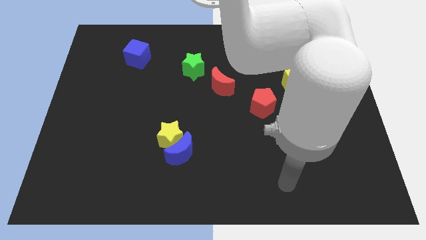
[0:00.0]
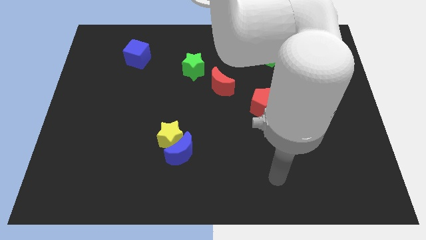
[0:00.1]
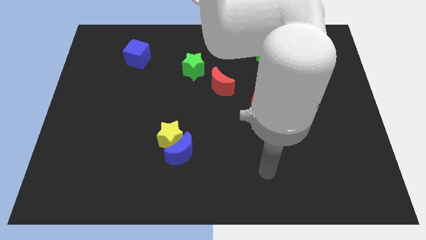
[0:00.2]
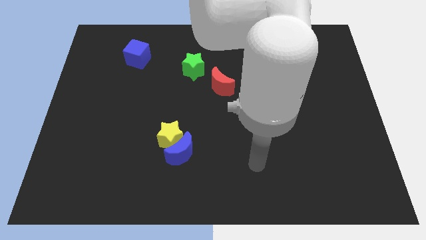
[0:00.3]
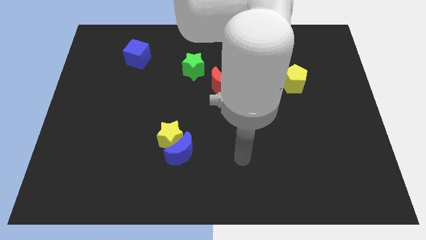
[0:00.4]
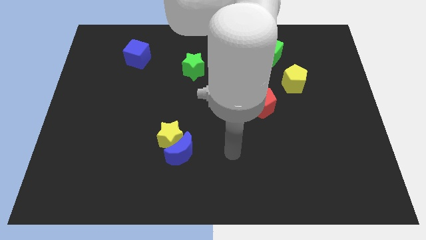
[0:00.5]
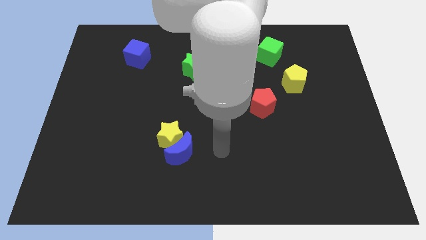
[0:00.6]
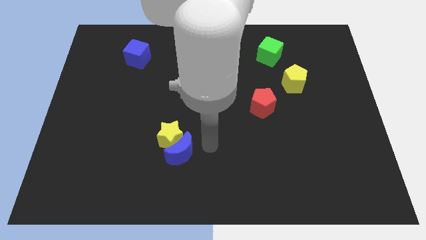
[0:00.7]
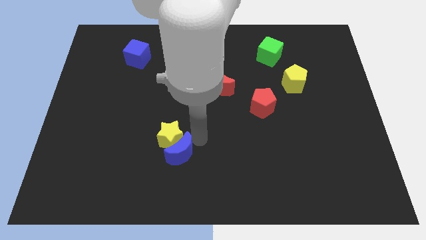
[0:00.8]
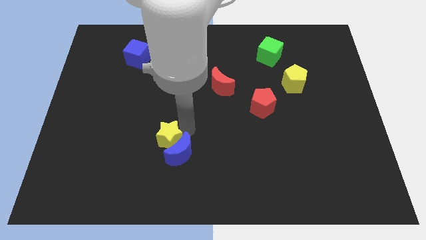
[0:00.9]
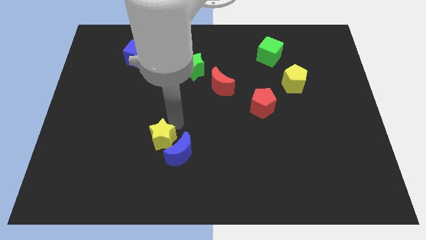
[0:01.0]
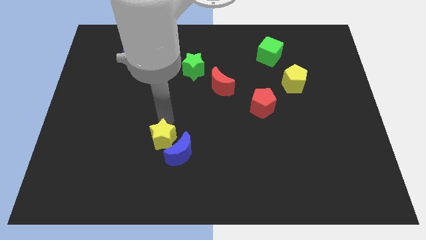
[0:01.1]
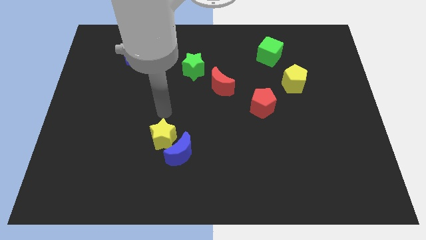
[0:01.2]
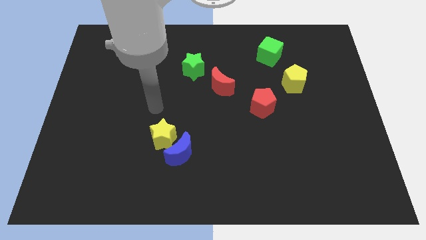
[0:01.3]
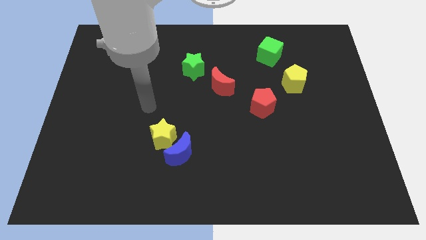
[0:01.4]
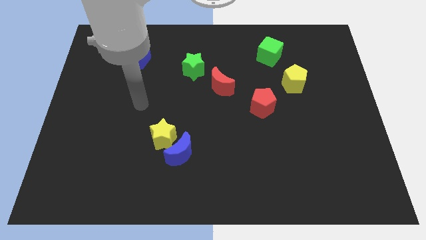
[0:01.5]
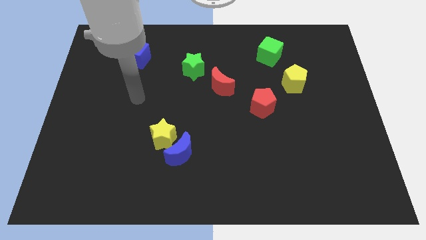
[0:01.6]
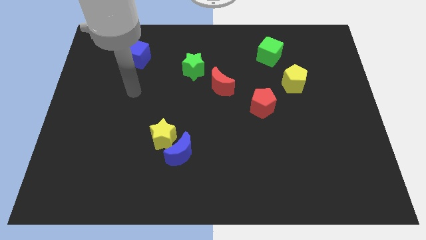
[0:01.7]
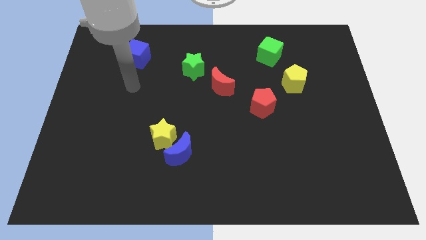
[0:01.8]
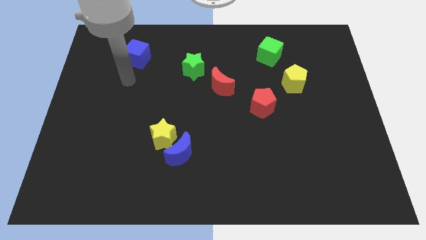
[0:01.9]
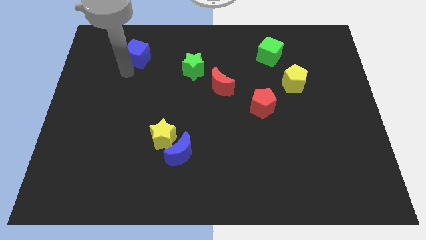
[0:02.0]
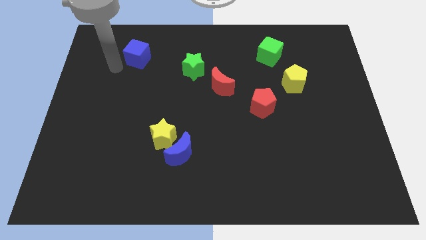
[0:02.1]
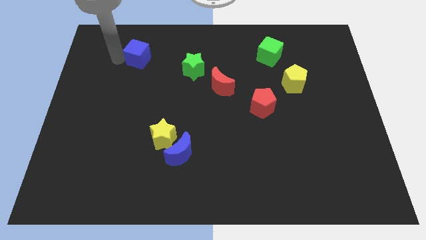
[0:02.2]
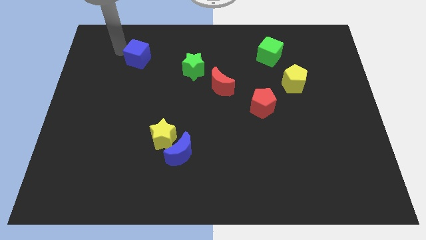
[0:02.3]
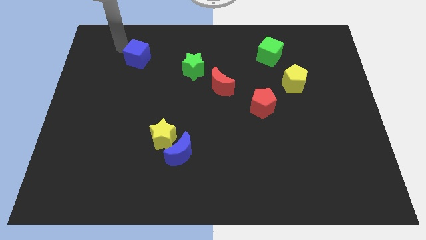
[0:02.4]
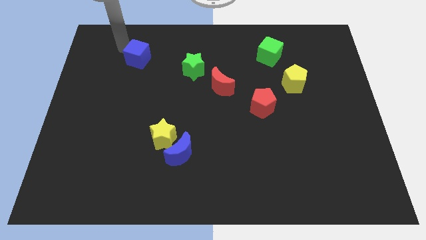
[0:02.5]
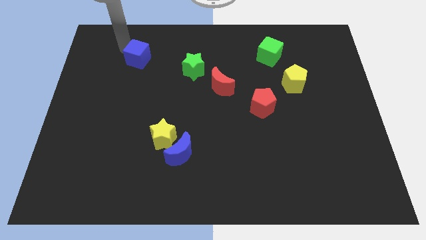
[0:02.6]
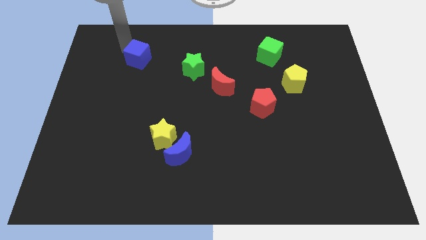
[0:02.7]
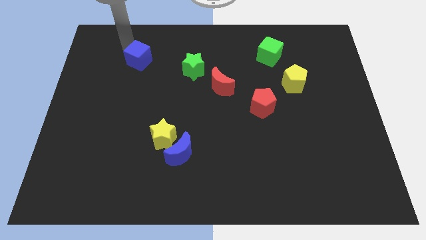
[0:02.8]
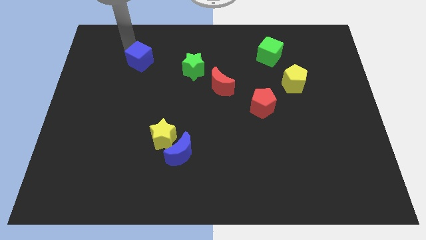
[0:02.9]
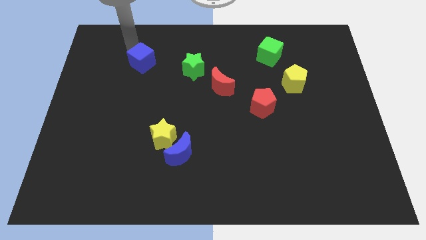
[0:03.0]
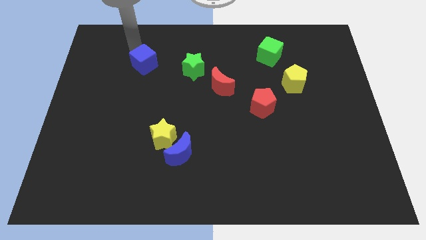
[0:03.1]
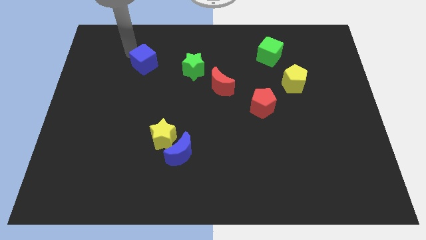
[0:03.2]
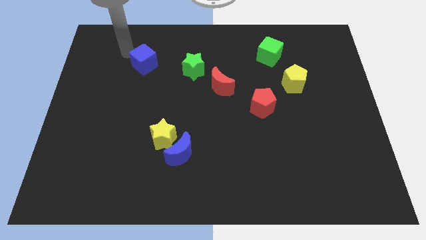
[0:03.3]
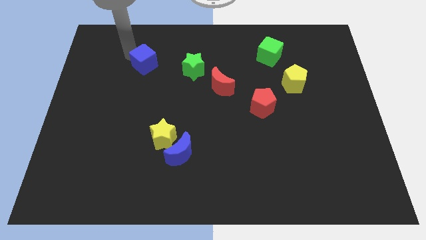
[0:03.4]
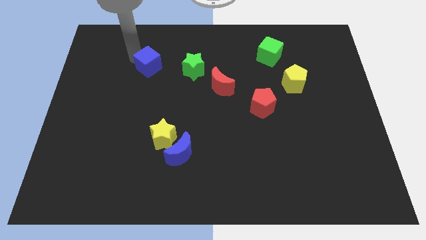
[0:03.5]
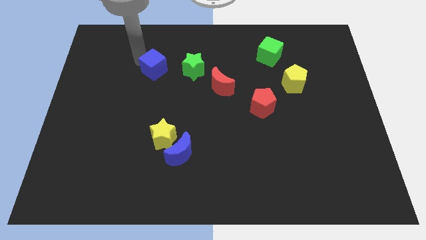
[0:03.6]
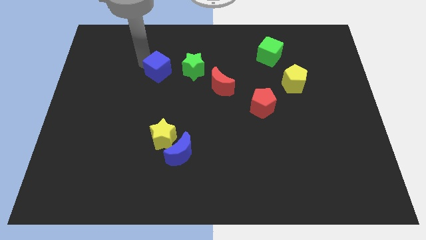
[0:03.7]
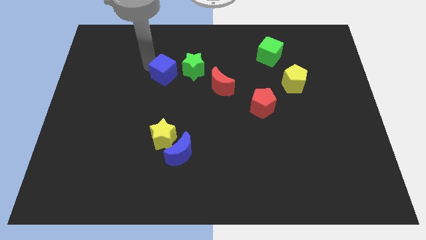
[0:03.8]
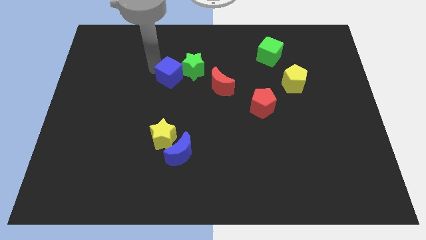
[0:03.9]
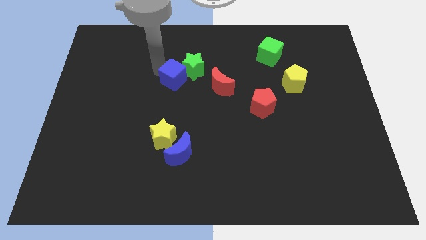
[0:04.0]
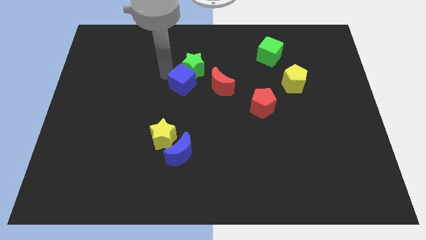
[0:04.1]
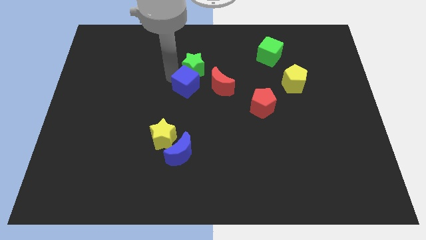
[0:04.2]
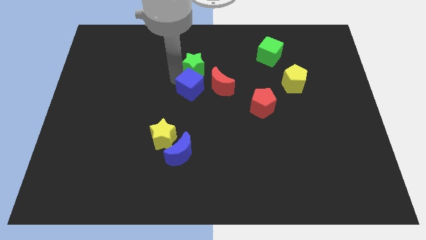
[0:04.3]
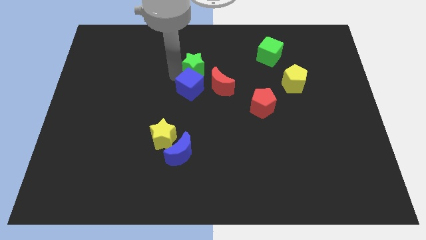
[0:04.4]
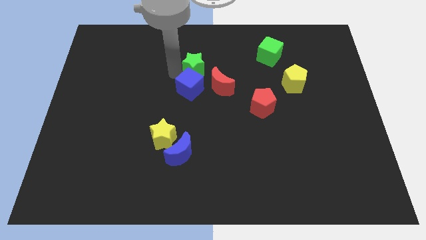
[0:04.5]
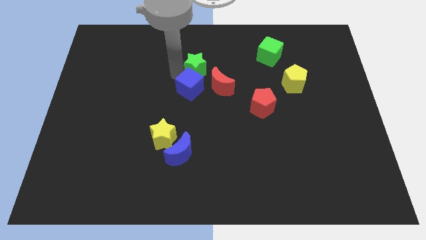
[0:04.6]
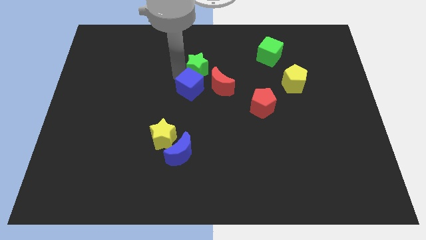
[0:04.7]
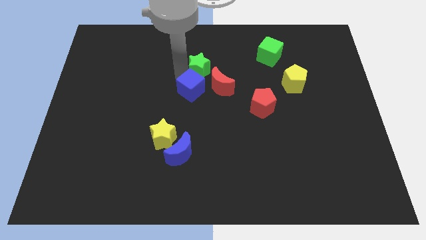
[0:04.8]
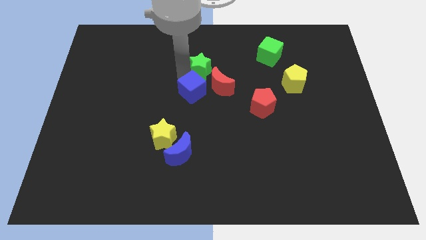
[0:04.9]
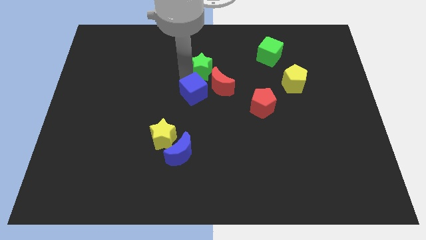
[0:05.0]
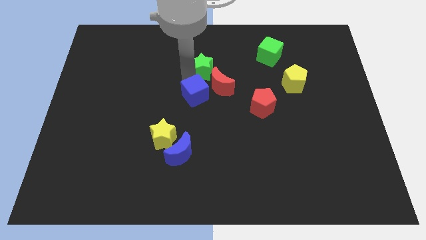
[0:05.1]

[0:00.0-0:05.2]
move the blue cube down and right

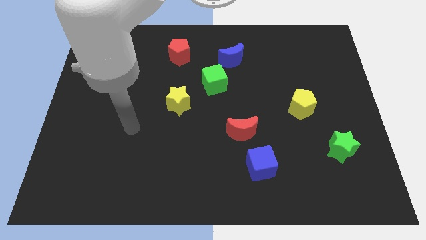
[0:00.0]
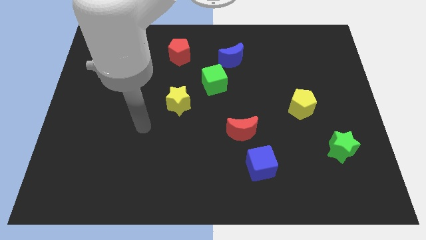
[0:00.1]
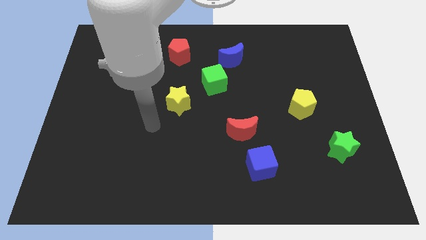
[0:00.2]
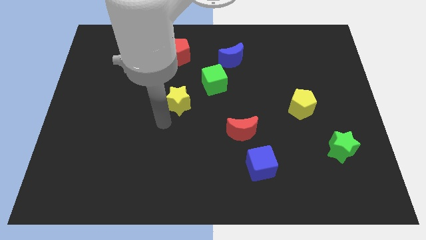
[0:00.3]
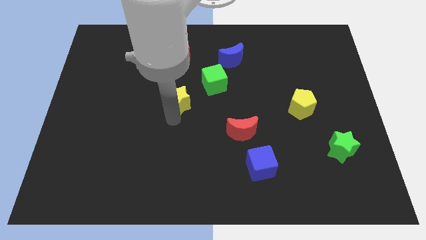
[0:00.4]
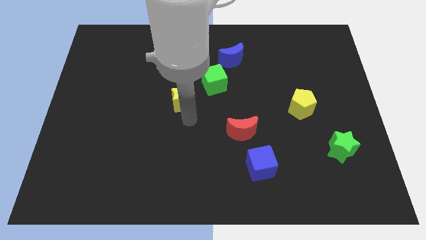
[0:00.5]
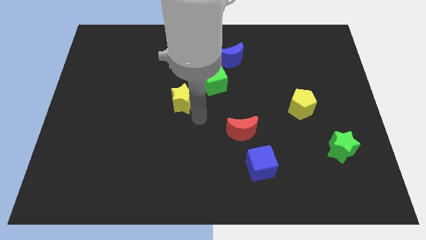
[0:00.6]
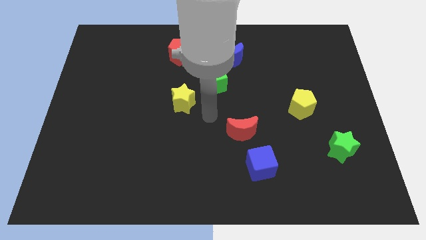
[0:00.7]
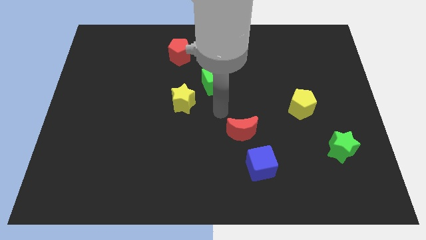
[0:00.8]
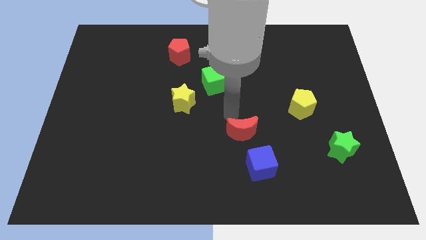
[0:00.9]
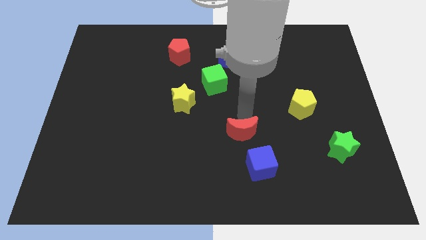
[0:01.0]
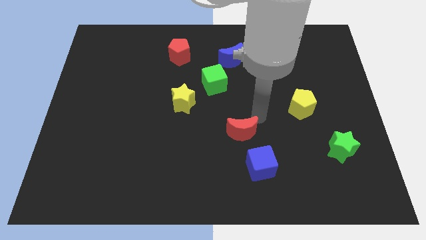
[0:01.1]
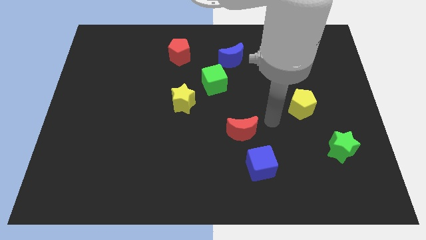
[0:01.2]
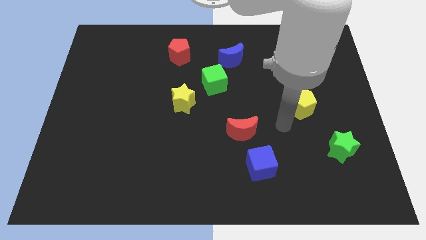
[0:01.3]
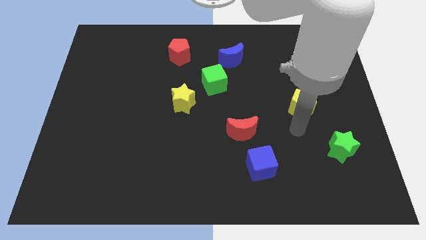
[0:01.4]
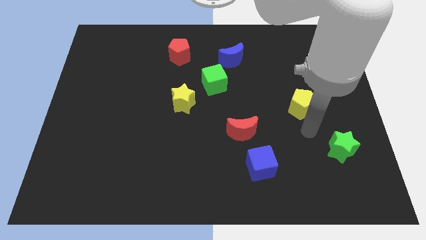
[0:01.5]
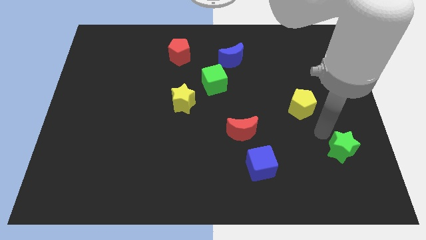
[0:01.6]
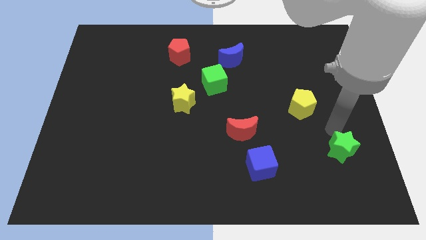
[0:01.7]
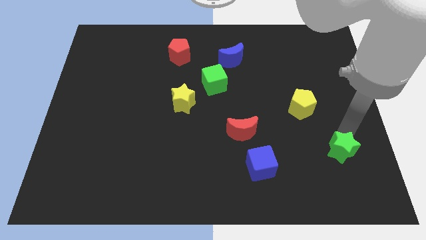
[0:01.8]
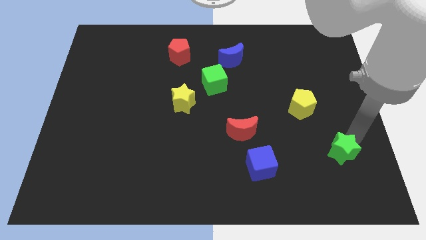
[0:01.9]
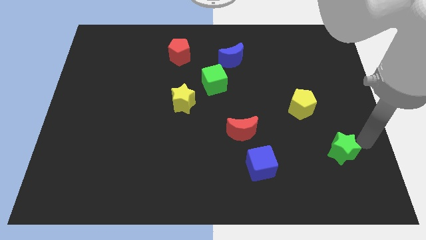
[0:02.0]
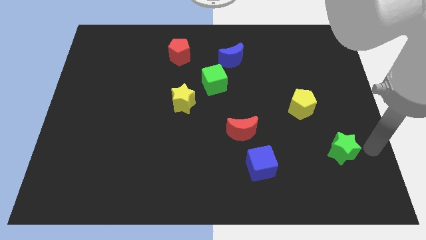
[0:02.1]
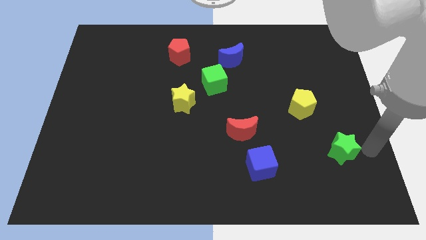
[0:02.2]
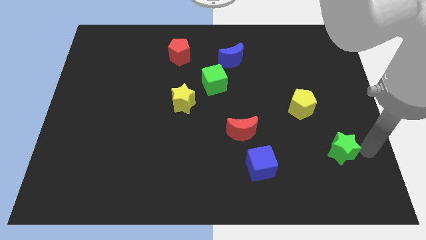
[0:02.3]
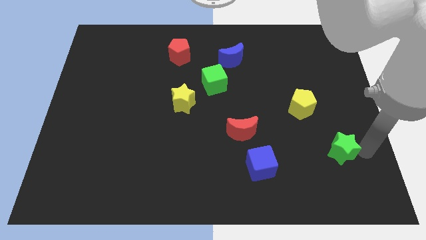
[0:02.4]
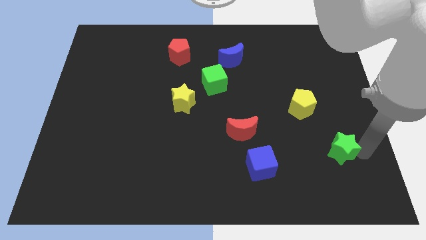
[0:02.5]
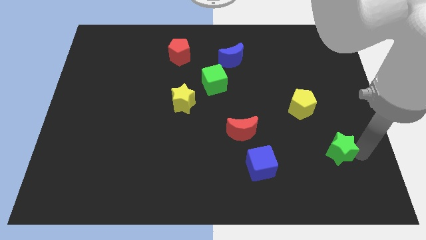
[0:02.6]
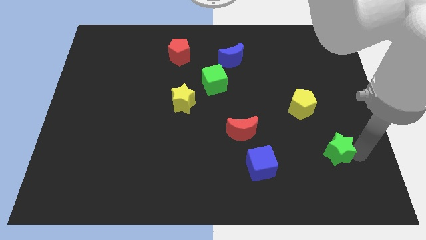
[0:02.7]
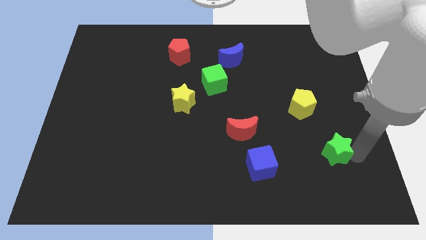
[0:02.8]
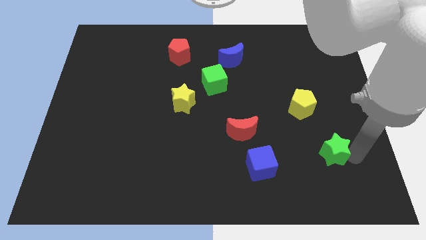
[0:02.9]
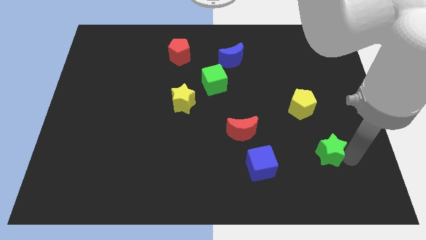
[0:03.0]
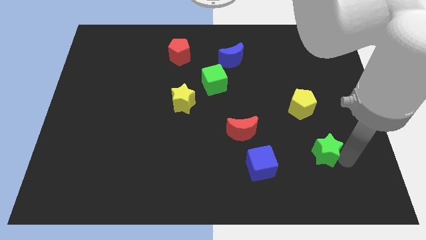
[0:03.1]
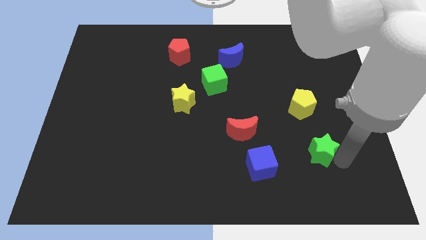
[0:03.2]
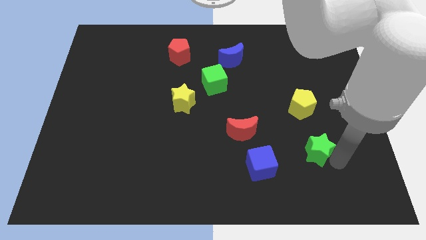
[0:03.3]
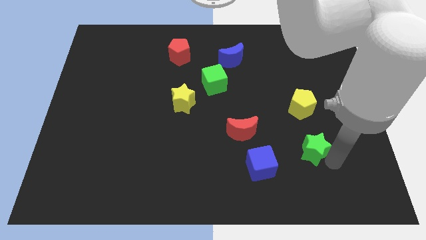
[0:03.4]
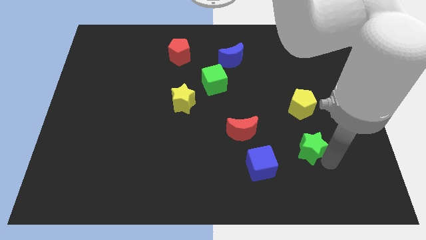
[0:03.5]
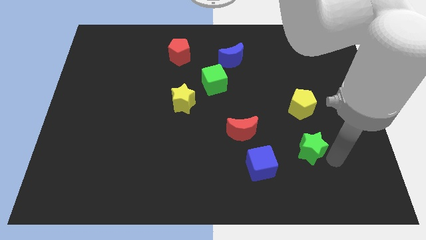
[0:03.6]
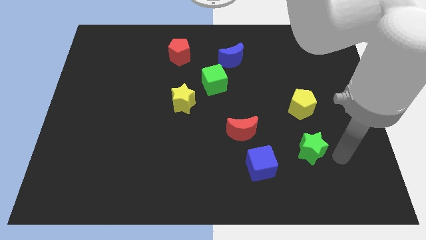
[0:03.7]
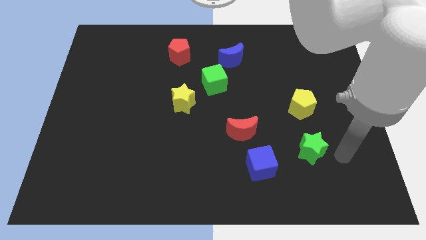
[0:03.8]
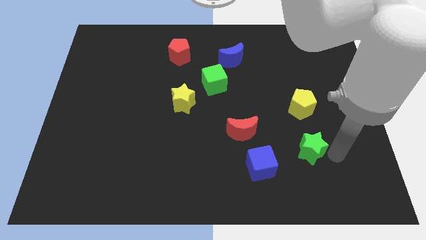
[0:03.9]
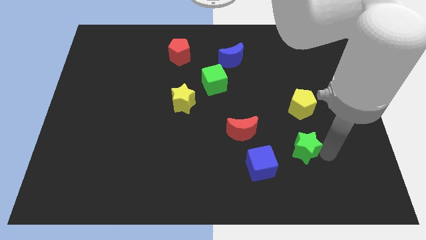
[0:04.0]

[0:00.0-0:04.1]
move the green star a little to the left
